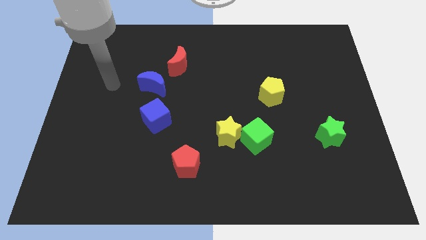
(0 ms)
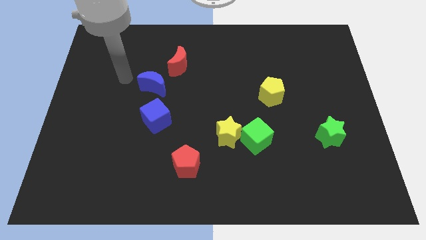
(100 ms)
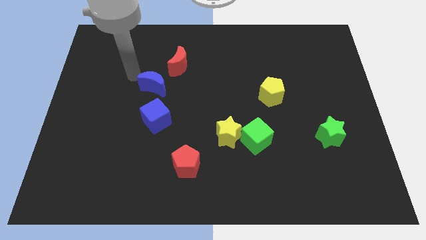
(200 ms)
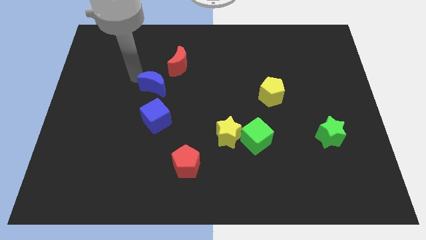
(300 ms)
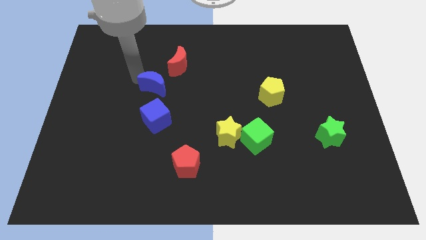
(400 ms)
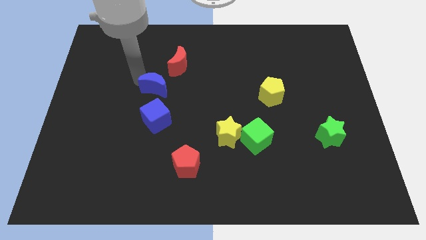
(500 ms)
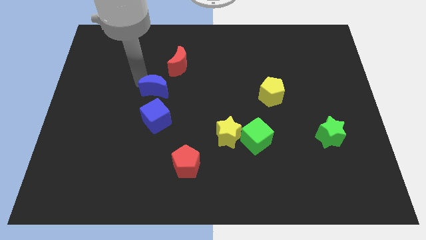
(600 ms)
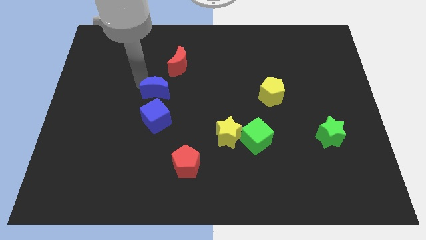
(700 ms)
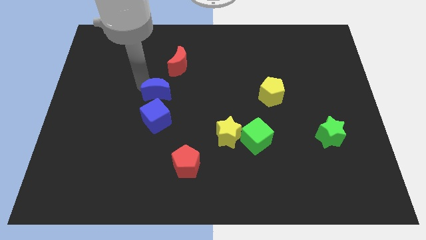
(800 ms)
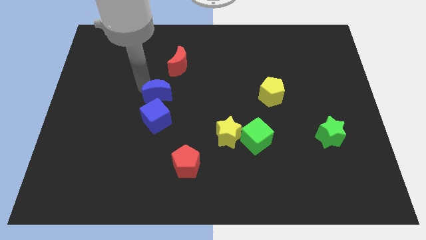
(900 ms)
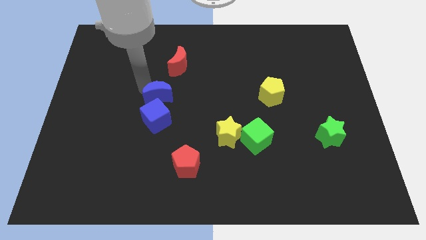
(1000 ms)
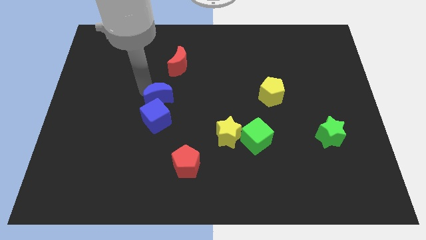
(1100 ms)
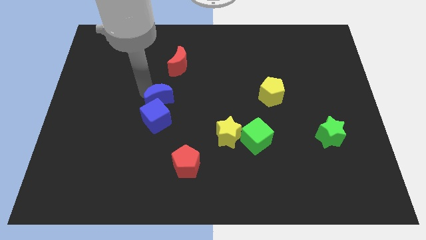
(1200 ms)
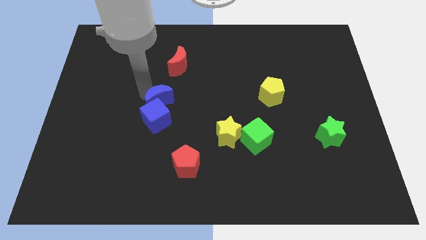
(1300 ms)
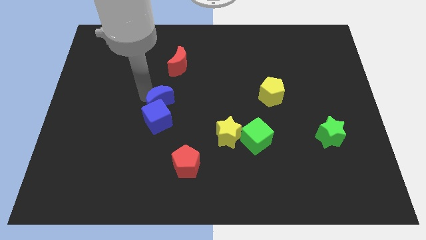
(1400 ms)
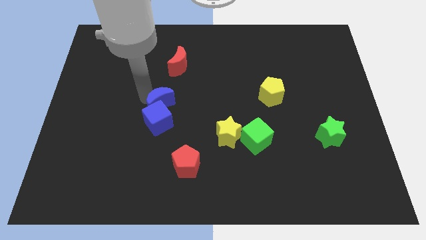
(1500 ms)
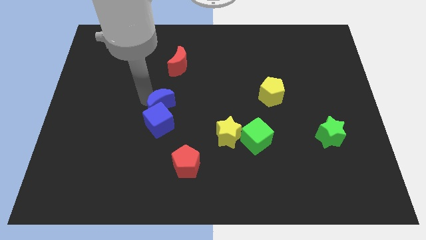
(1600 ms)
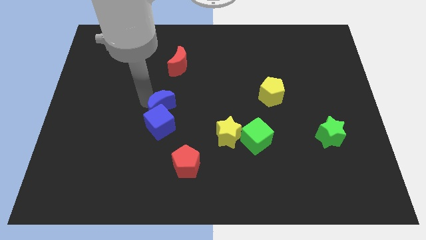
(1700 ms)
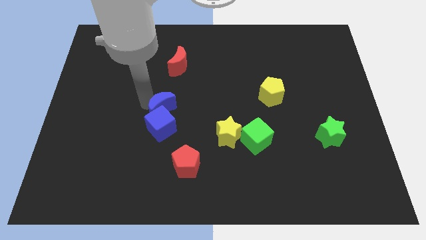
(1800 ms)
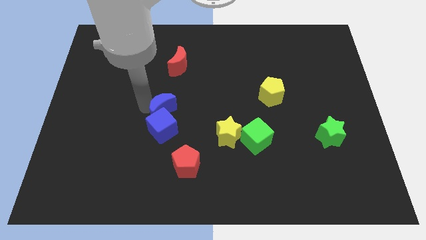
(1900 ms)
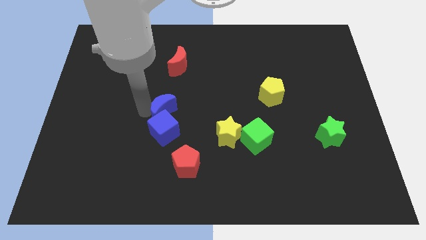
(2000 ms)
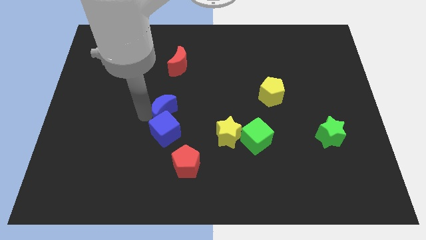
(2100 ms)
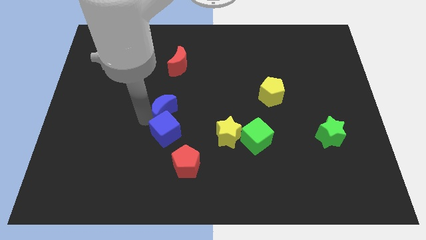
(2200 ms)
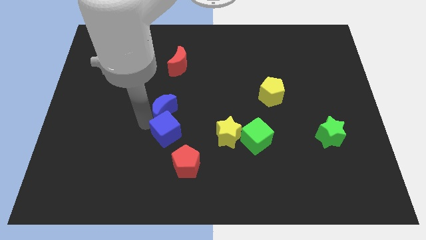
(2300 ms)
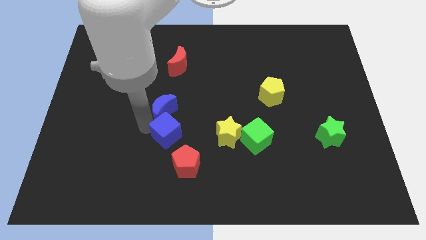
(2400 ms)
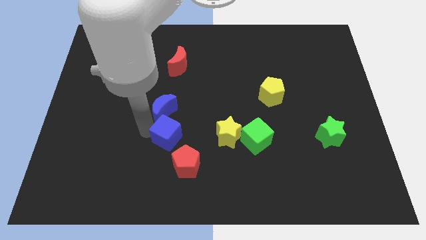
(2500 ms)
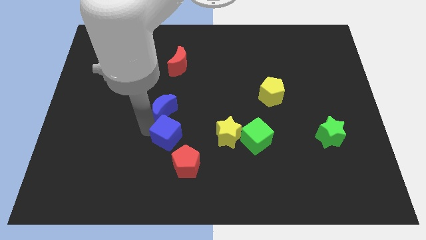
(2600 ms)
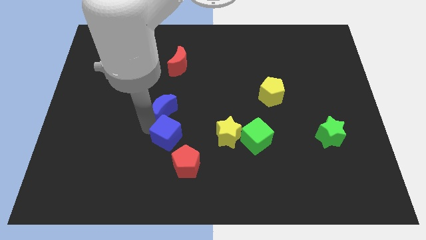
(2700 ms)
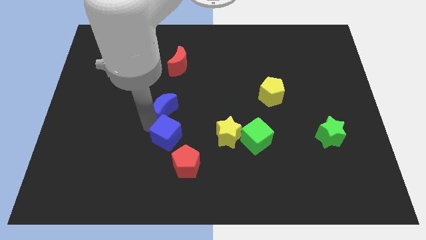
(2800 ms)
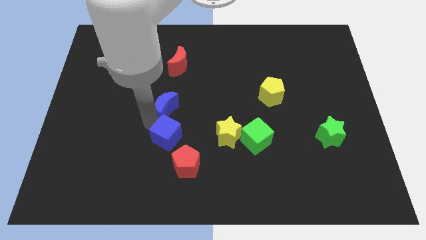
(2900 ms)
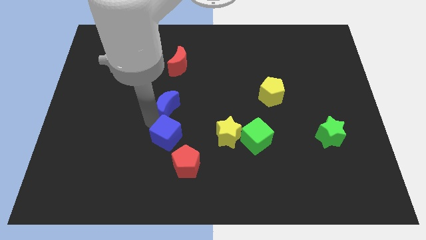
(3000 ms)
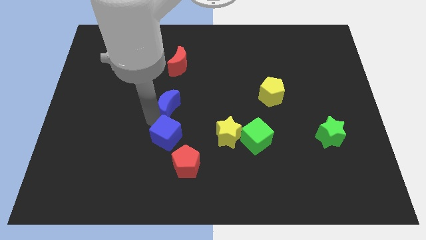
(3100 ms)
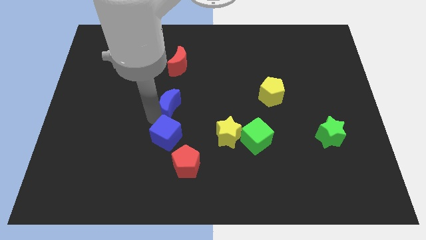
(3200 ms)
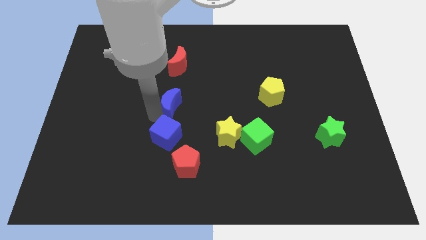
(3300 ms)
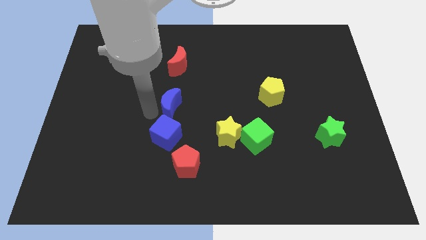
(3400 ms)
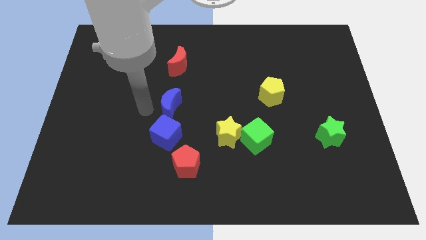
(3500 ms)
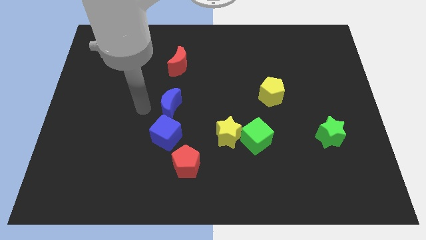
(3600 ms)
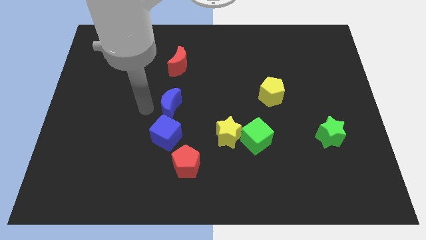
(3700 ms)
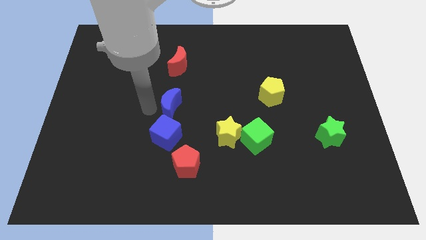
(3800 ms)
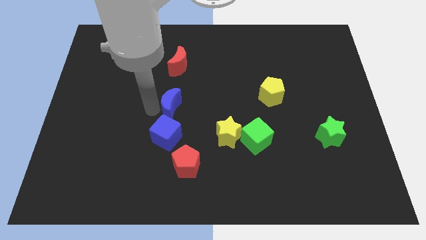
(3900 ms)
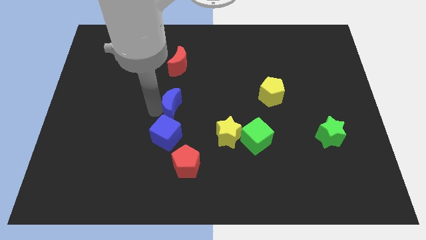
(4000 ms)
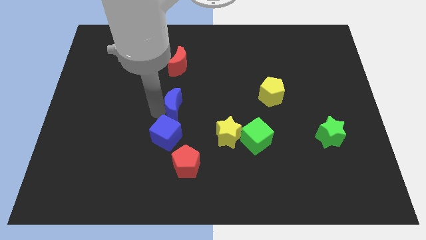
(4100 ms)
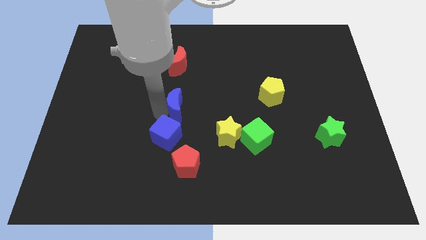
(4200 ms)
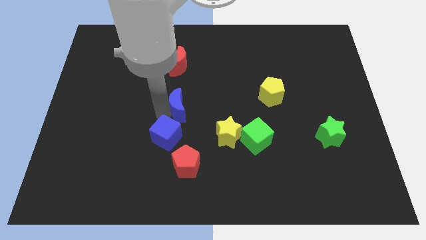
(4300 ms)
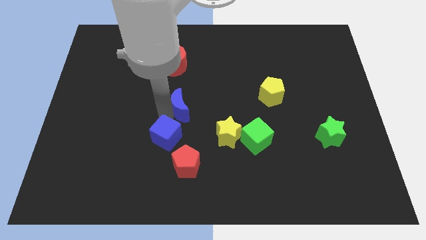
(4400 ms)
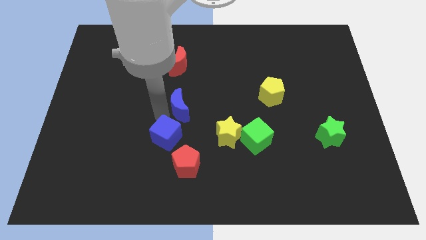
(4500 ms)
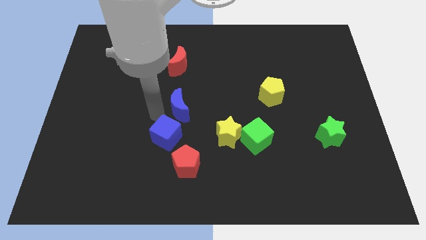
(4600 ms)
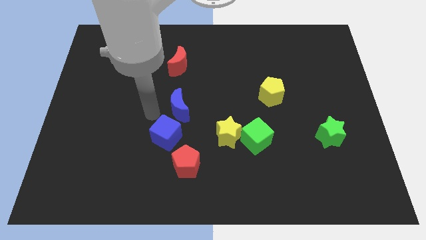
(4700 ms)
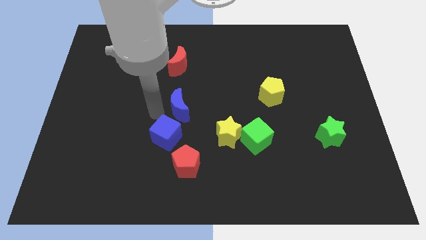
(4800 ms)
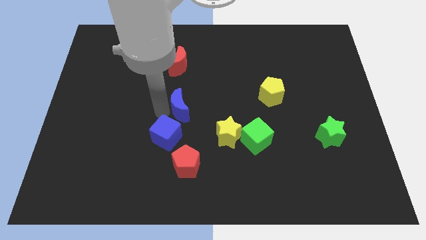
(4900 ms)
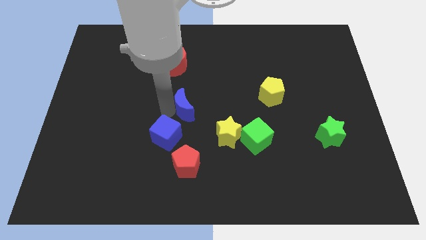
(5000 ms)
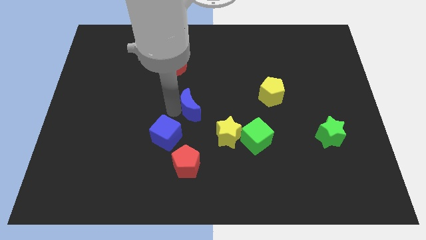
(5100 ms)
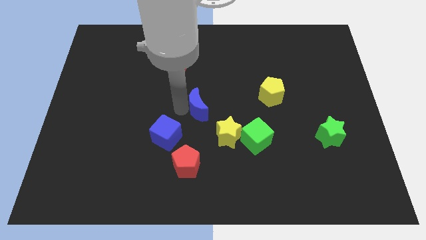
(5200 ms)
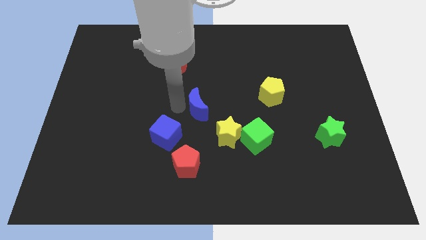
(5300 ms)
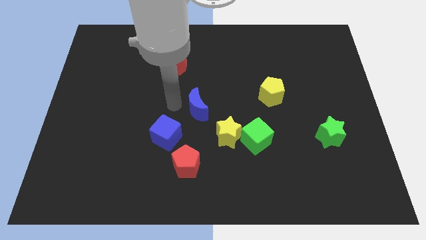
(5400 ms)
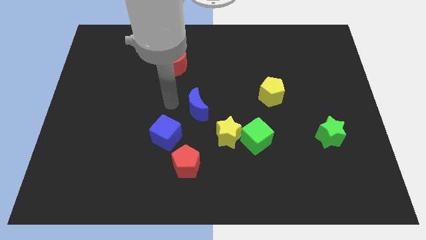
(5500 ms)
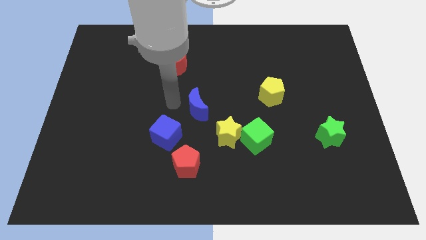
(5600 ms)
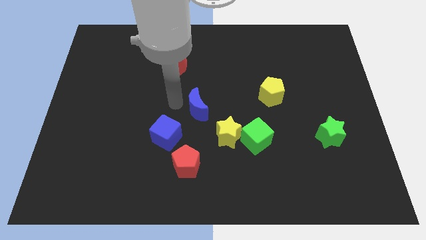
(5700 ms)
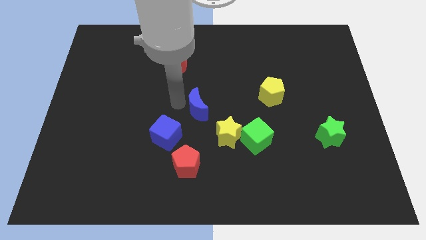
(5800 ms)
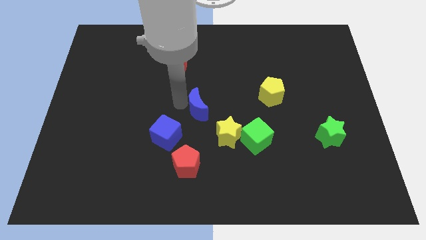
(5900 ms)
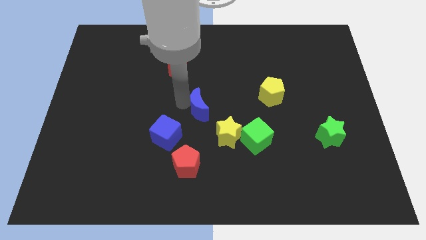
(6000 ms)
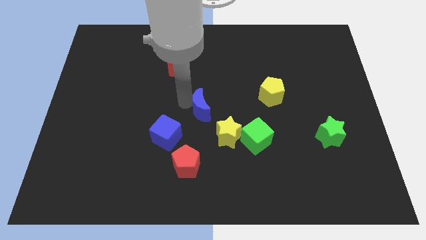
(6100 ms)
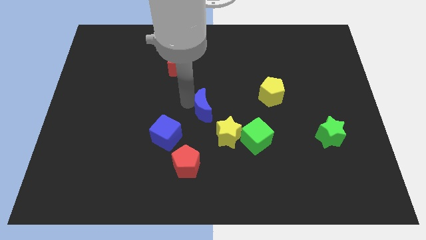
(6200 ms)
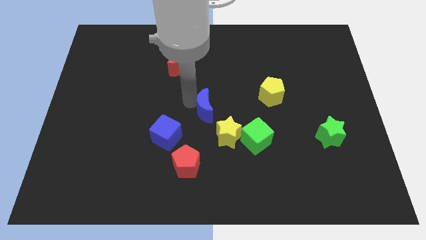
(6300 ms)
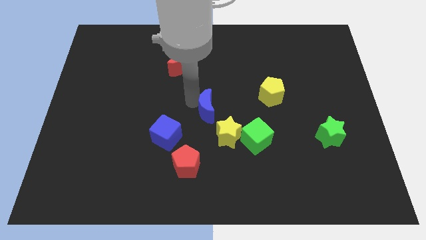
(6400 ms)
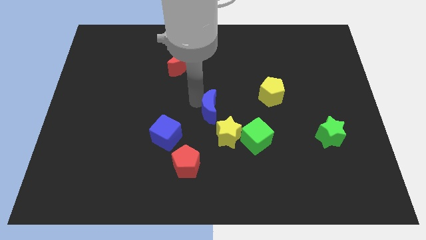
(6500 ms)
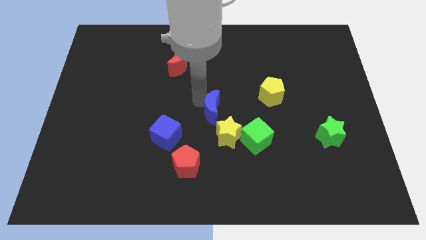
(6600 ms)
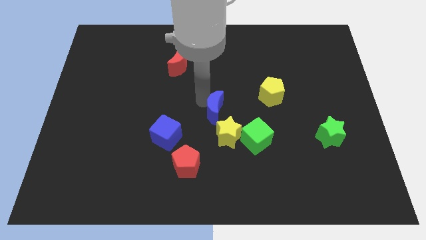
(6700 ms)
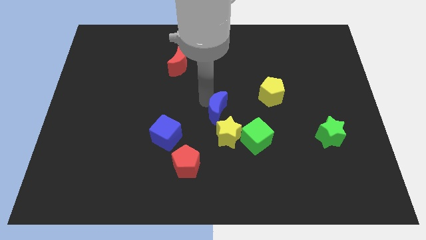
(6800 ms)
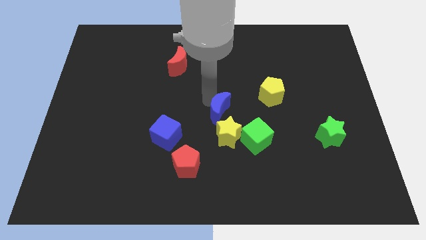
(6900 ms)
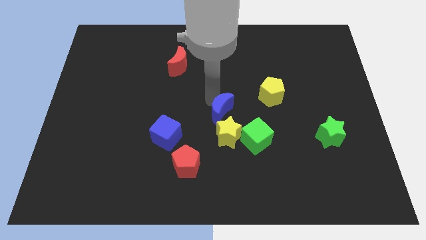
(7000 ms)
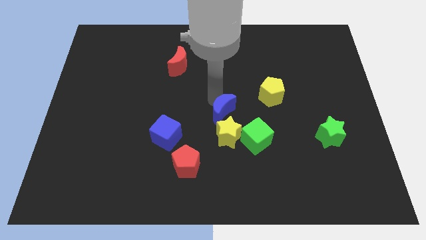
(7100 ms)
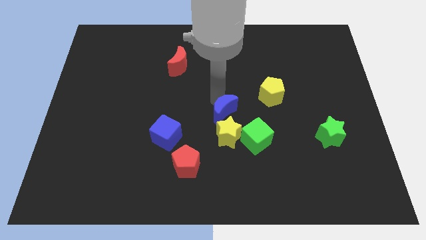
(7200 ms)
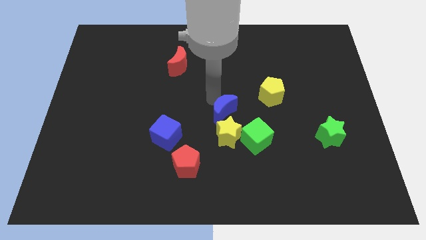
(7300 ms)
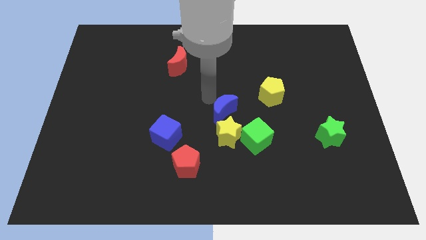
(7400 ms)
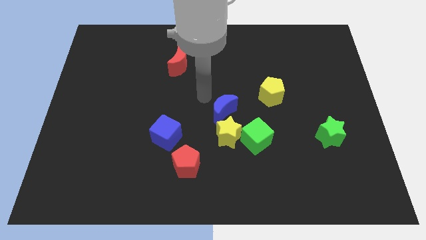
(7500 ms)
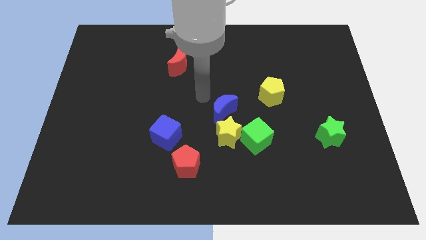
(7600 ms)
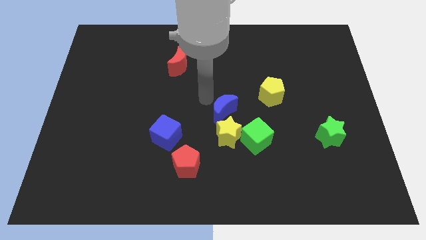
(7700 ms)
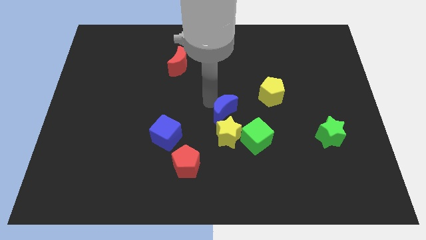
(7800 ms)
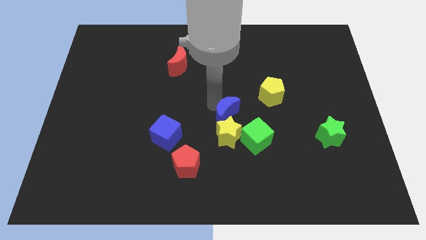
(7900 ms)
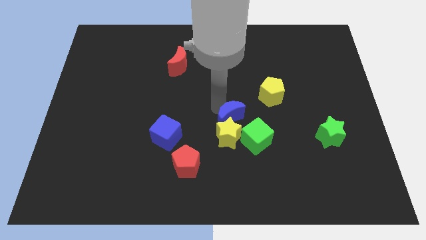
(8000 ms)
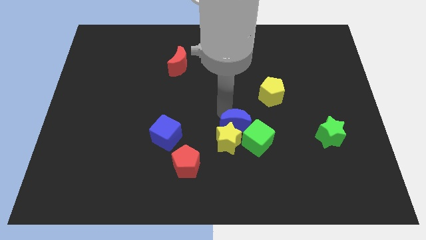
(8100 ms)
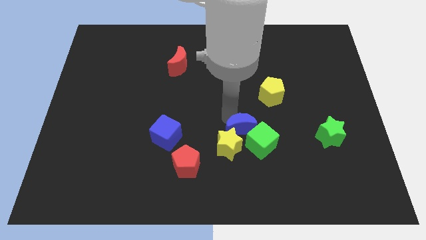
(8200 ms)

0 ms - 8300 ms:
put the blue moon to the green cube
